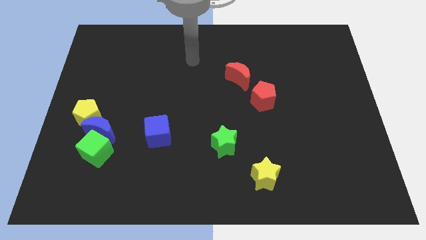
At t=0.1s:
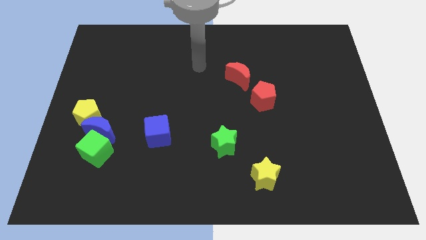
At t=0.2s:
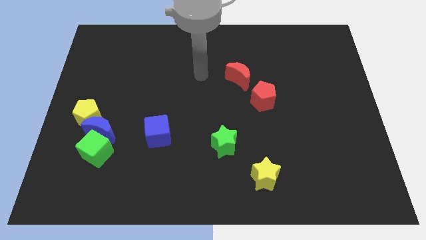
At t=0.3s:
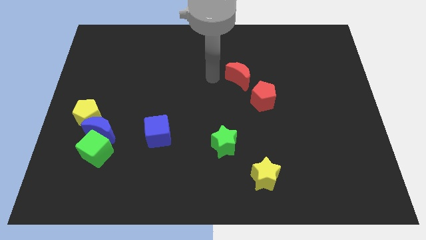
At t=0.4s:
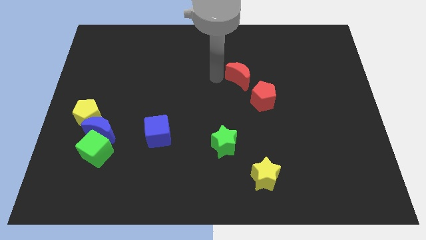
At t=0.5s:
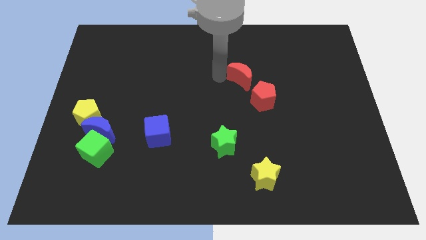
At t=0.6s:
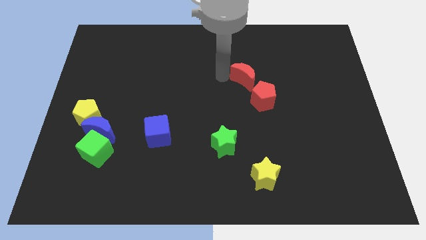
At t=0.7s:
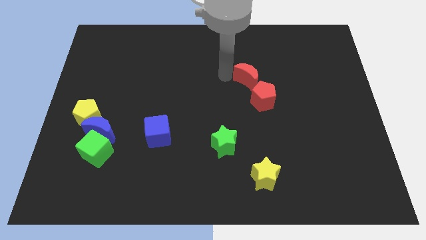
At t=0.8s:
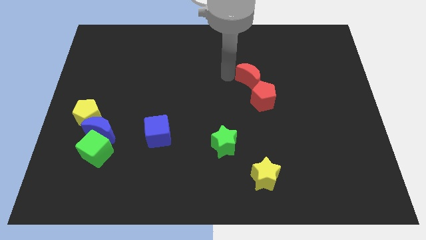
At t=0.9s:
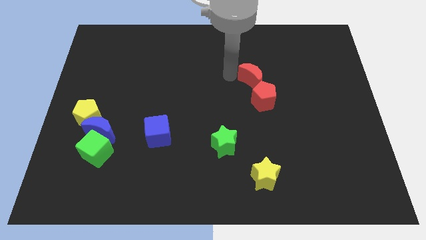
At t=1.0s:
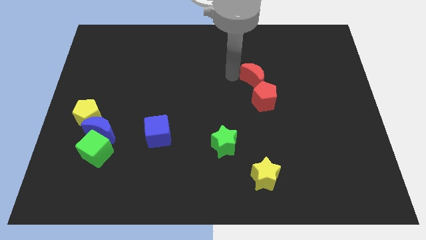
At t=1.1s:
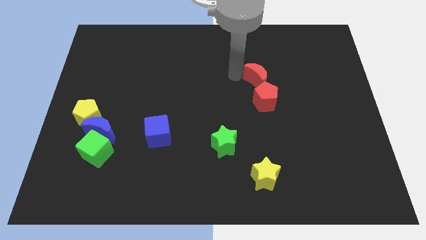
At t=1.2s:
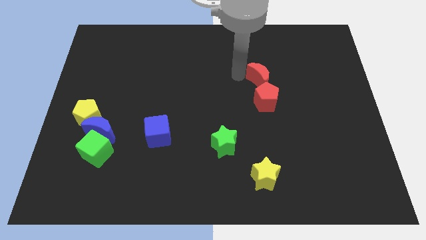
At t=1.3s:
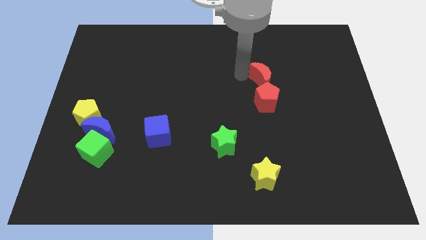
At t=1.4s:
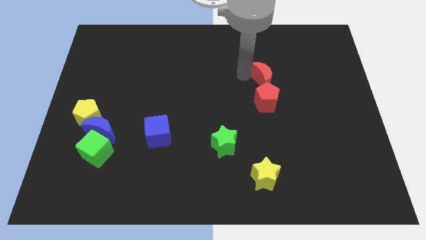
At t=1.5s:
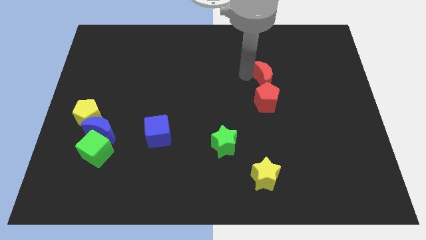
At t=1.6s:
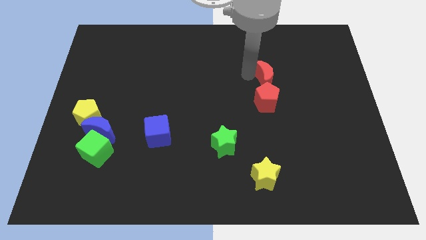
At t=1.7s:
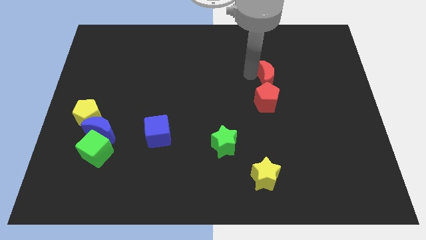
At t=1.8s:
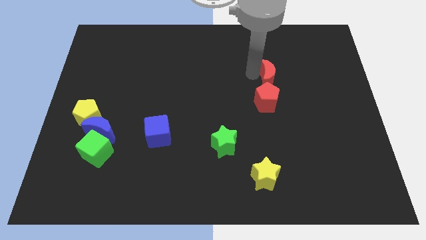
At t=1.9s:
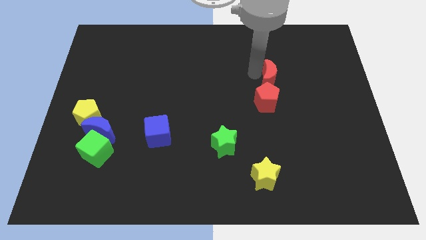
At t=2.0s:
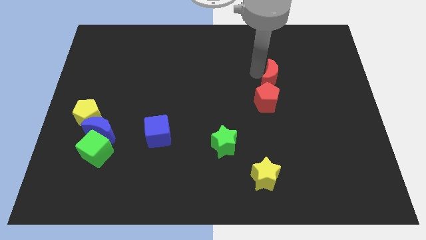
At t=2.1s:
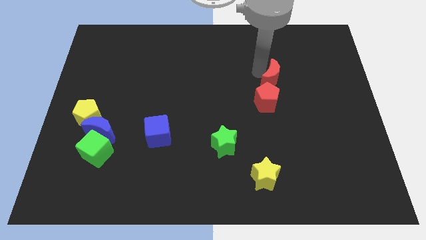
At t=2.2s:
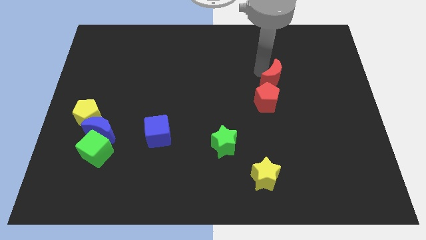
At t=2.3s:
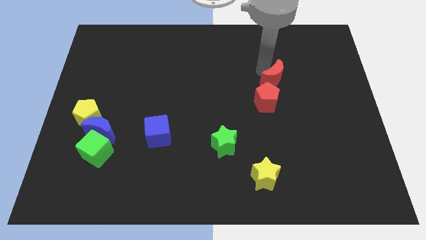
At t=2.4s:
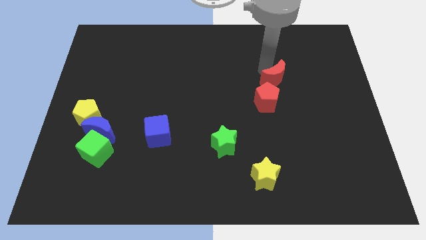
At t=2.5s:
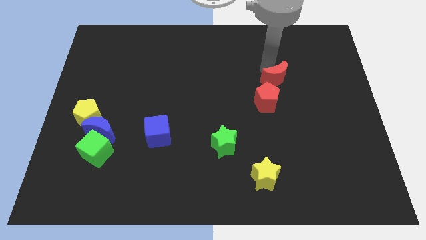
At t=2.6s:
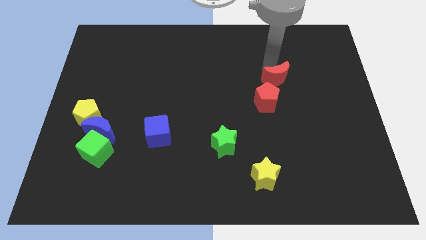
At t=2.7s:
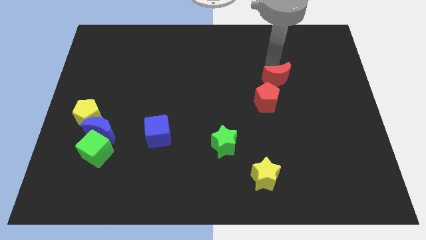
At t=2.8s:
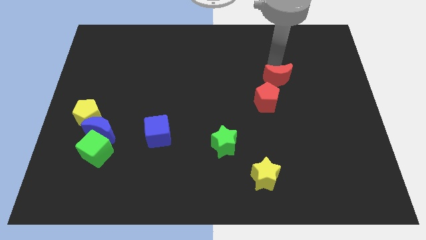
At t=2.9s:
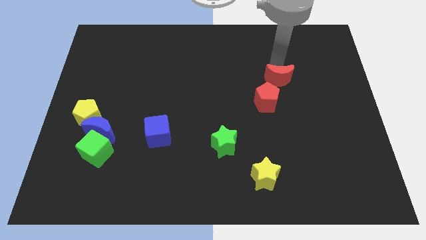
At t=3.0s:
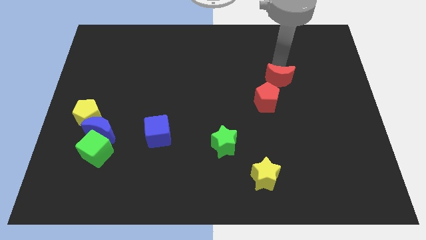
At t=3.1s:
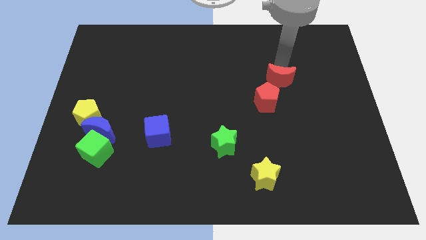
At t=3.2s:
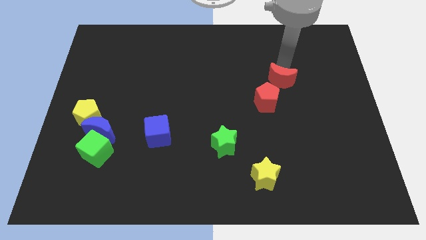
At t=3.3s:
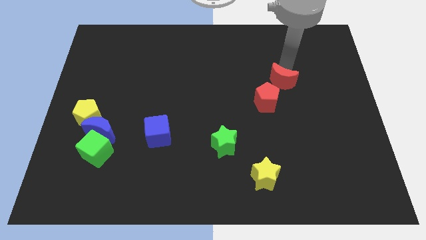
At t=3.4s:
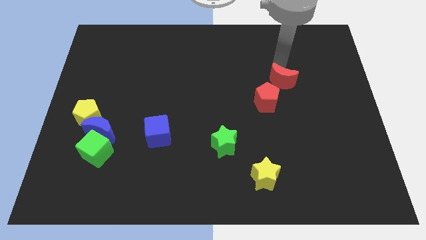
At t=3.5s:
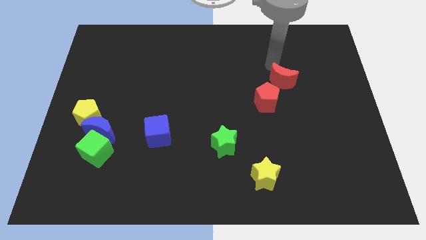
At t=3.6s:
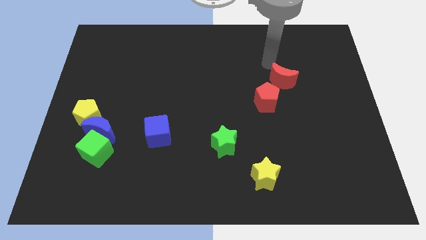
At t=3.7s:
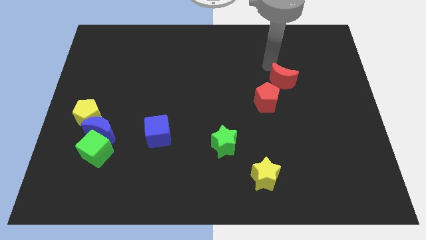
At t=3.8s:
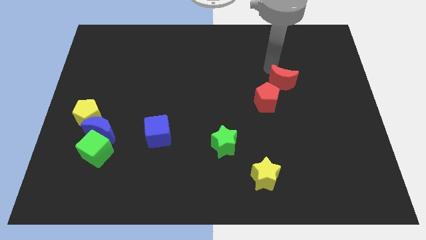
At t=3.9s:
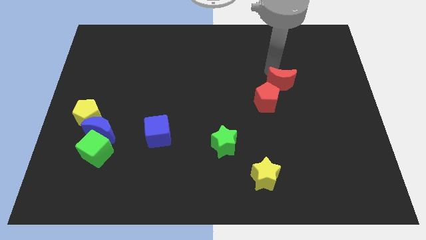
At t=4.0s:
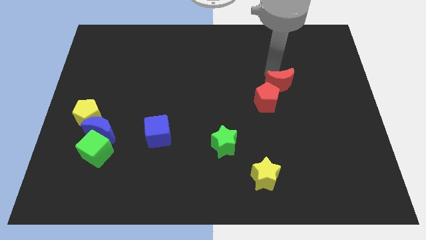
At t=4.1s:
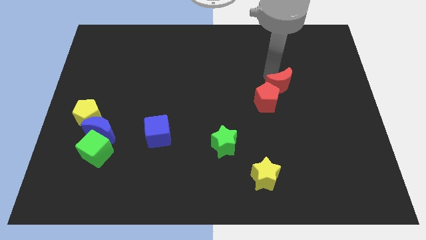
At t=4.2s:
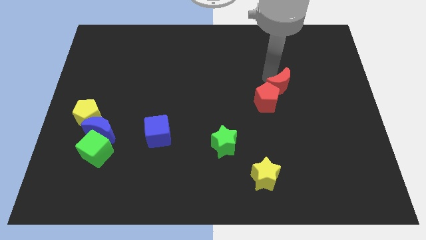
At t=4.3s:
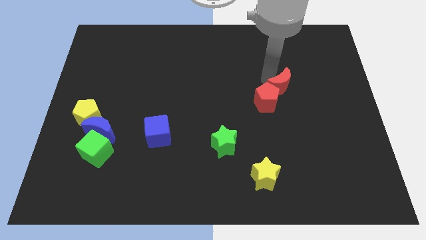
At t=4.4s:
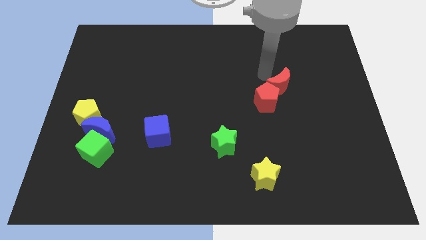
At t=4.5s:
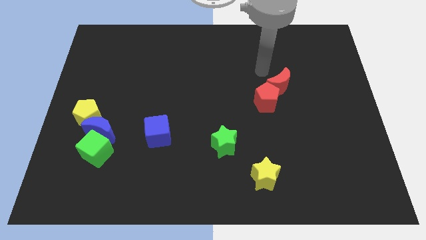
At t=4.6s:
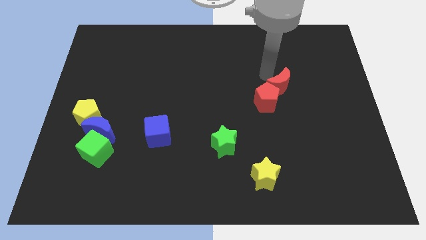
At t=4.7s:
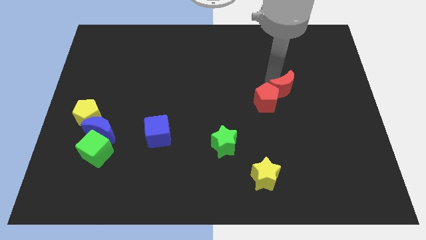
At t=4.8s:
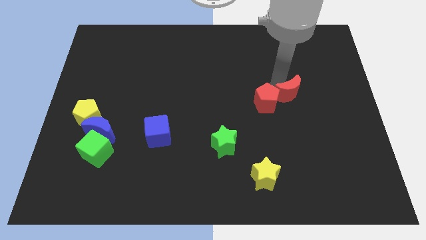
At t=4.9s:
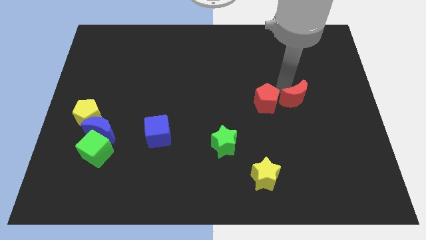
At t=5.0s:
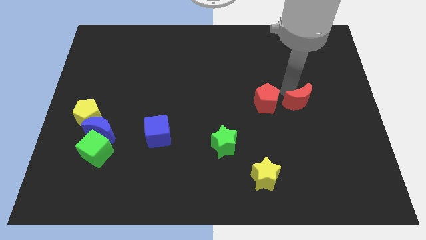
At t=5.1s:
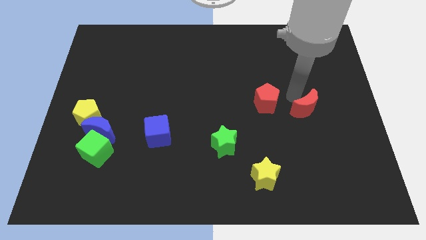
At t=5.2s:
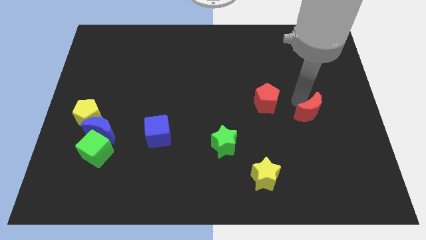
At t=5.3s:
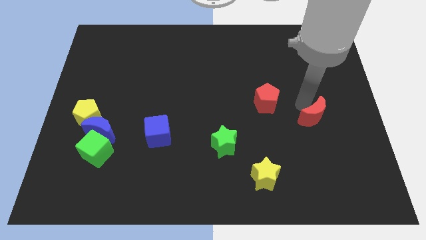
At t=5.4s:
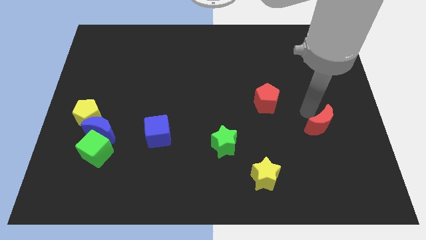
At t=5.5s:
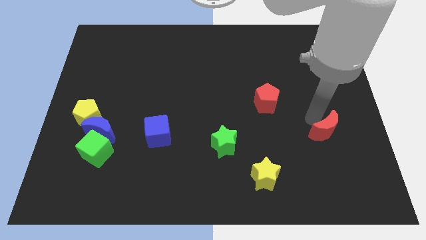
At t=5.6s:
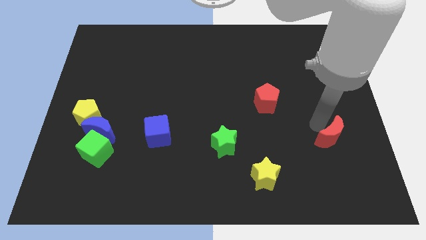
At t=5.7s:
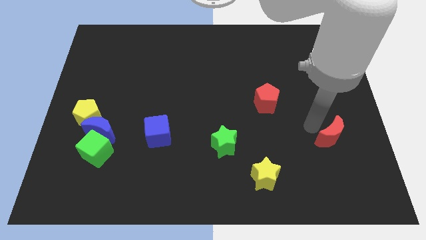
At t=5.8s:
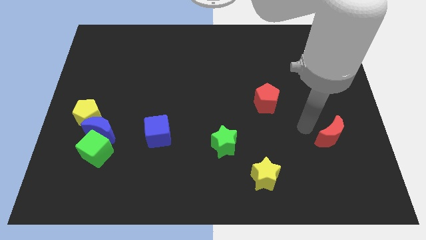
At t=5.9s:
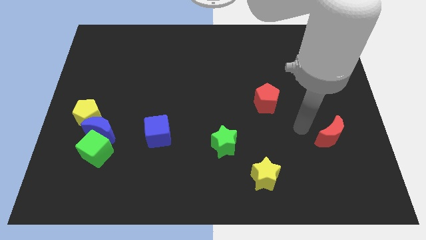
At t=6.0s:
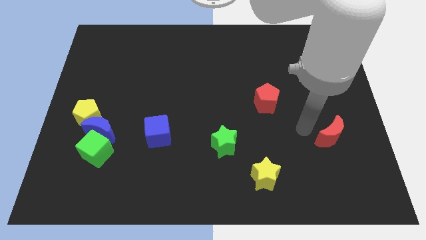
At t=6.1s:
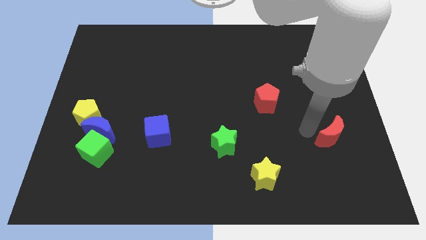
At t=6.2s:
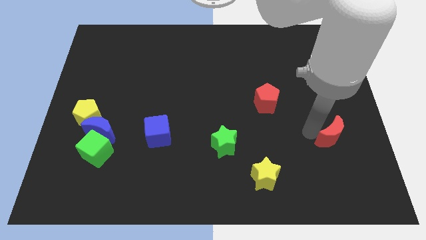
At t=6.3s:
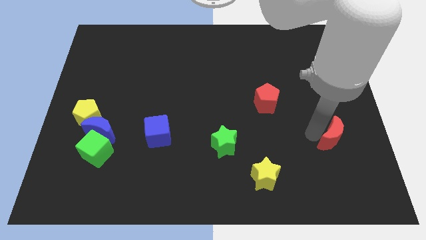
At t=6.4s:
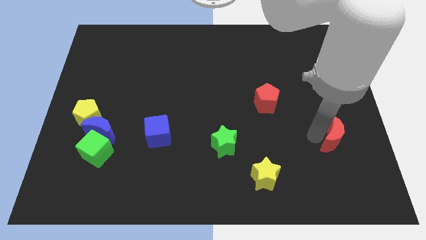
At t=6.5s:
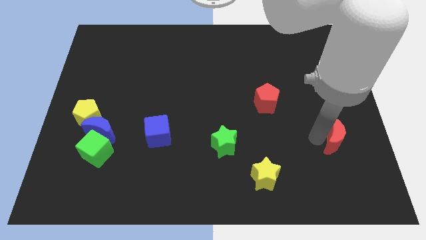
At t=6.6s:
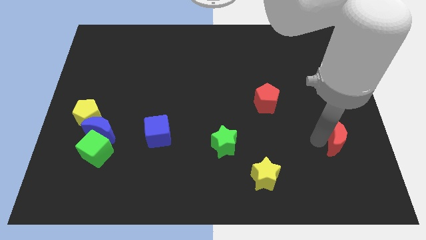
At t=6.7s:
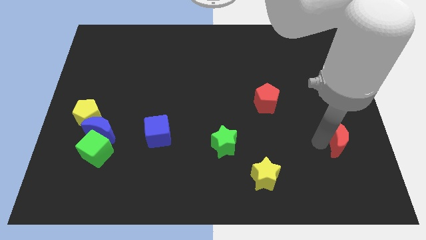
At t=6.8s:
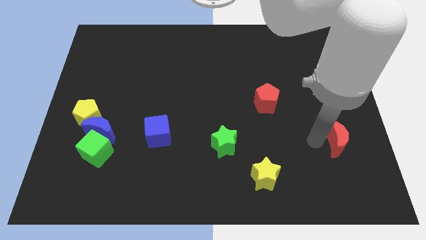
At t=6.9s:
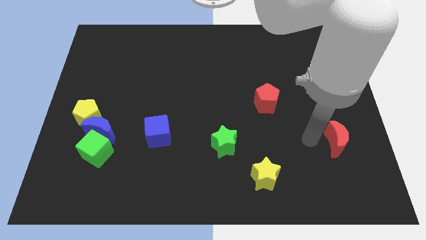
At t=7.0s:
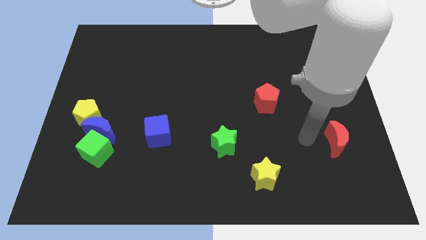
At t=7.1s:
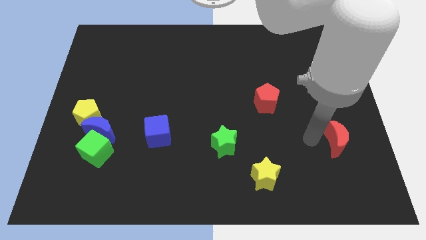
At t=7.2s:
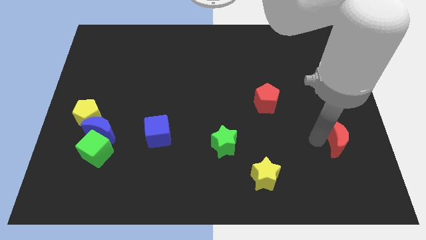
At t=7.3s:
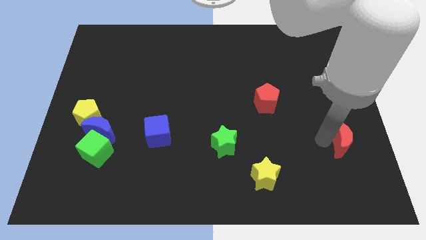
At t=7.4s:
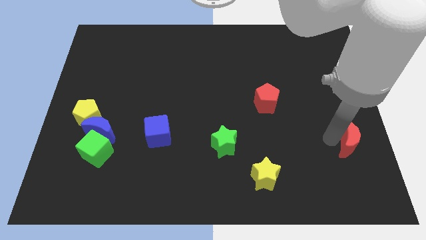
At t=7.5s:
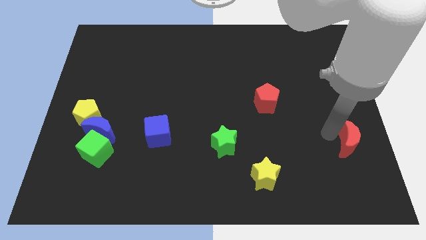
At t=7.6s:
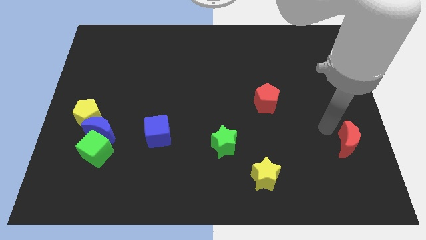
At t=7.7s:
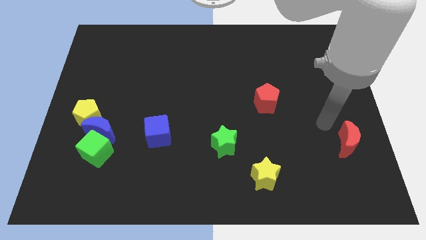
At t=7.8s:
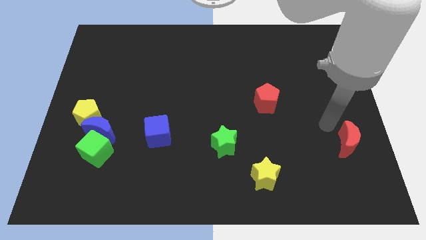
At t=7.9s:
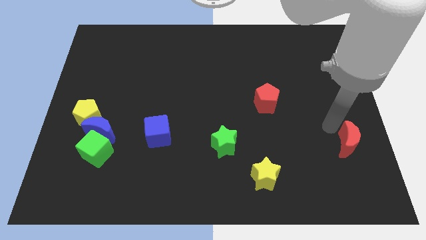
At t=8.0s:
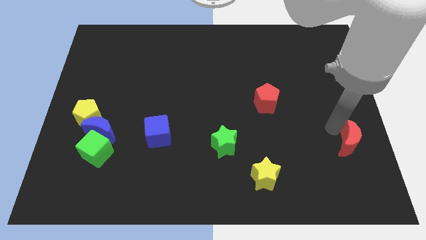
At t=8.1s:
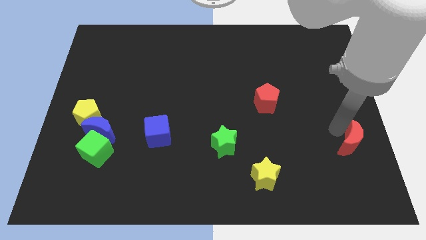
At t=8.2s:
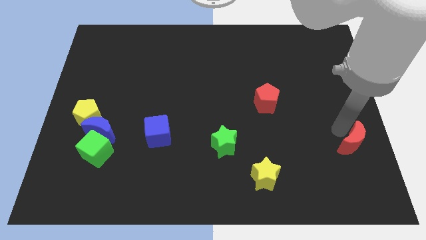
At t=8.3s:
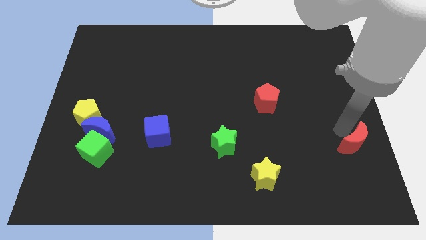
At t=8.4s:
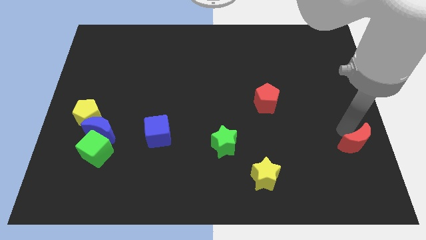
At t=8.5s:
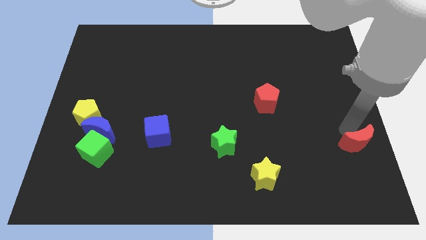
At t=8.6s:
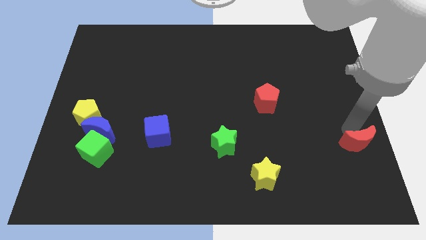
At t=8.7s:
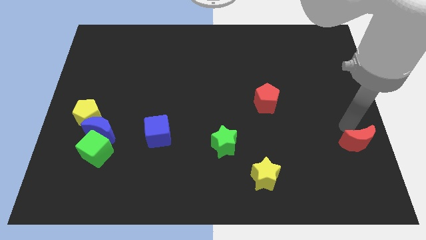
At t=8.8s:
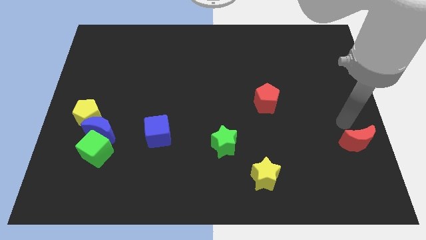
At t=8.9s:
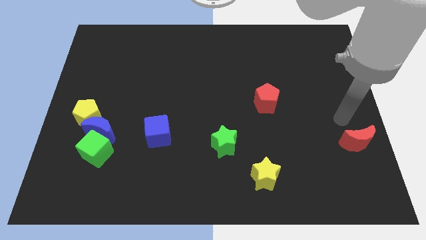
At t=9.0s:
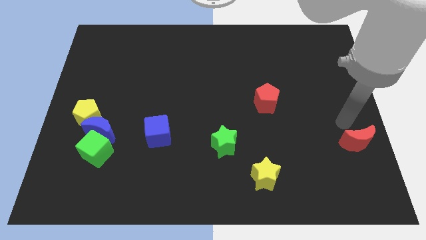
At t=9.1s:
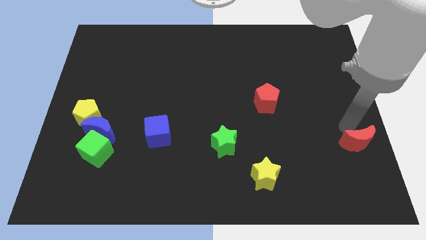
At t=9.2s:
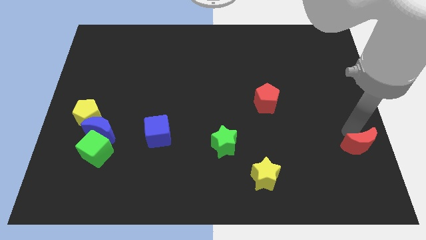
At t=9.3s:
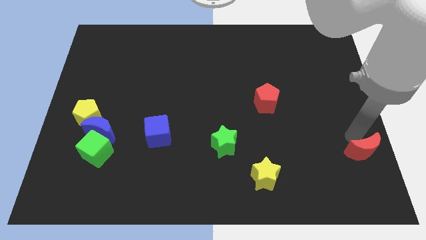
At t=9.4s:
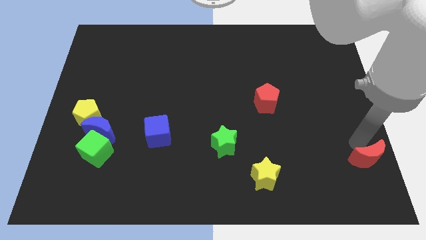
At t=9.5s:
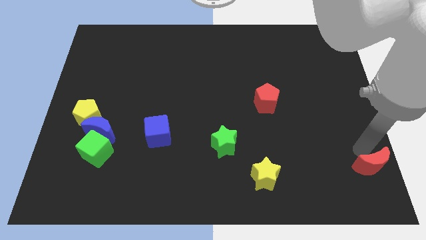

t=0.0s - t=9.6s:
slide the red moon to the bottom right of the board
